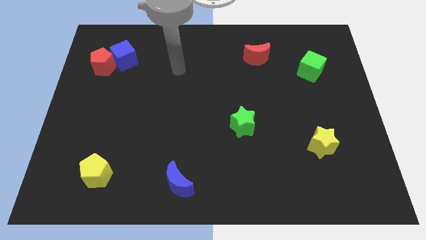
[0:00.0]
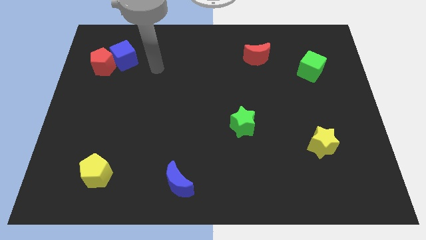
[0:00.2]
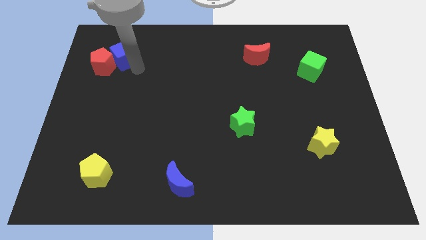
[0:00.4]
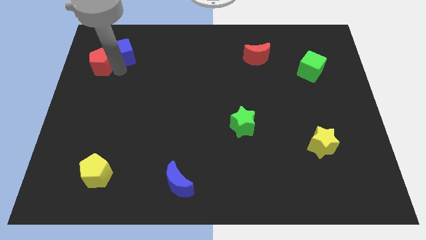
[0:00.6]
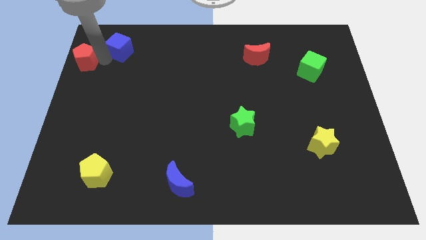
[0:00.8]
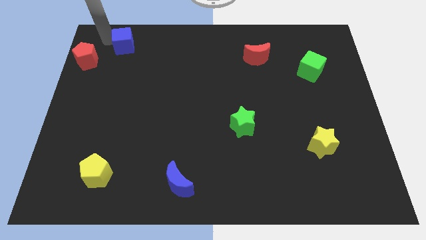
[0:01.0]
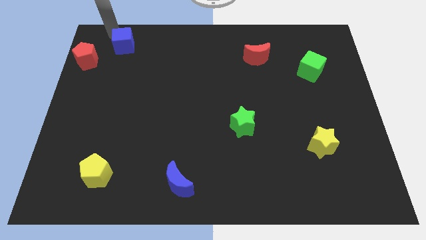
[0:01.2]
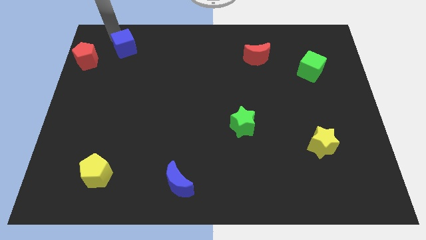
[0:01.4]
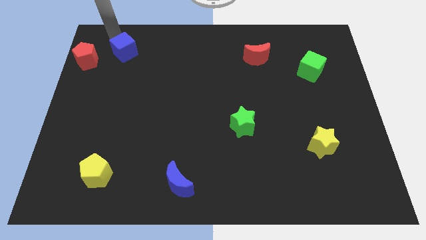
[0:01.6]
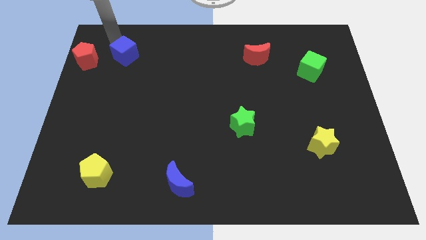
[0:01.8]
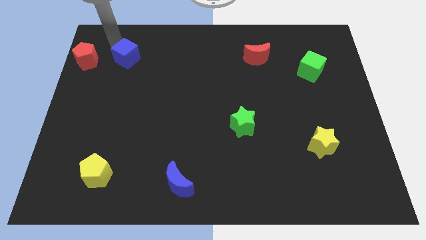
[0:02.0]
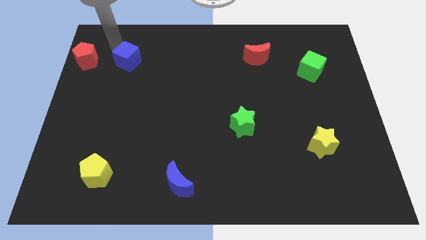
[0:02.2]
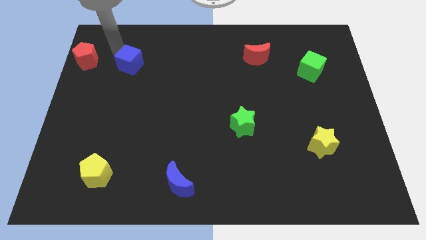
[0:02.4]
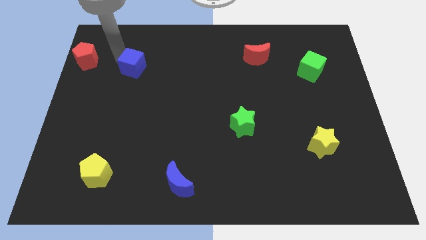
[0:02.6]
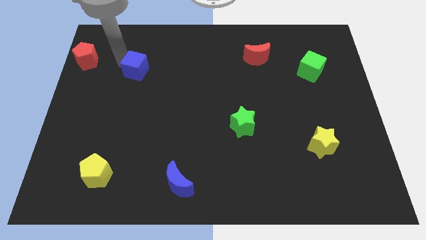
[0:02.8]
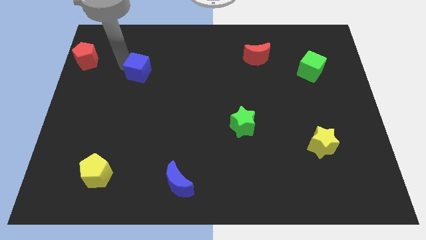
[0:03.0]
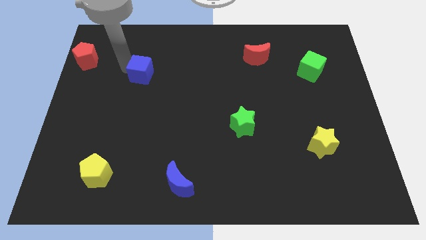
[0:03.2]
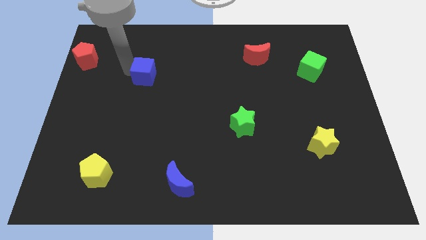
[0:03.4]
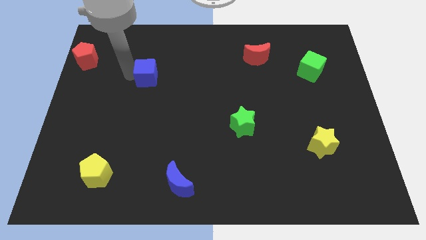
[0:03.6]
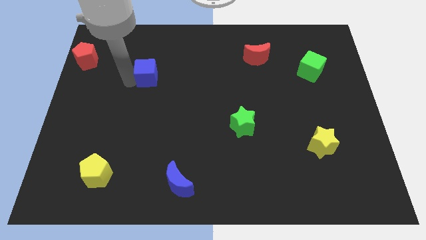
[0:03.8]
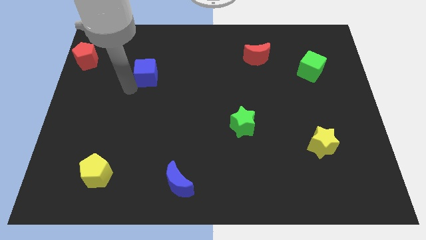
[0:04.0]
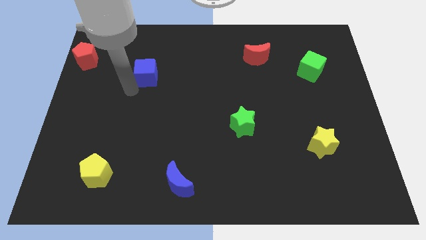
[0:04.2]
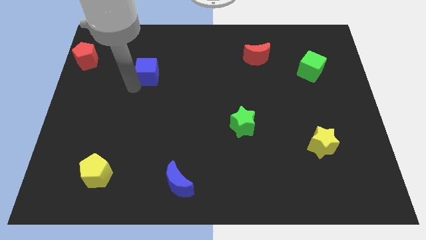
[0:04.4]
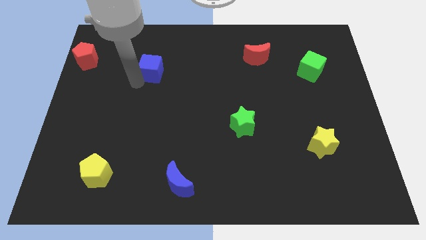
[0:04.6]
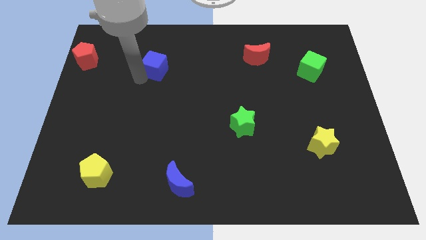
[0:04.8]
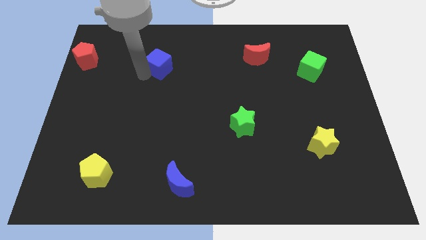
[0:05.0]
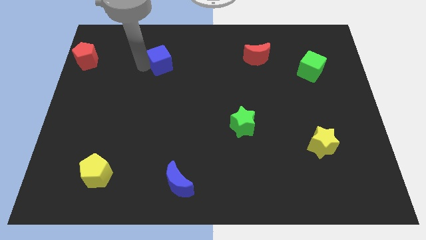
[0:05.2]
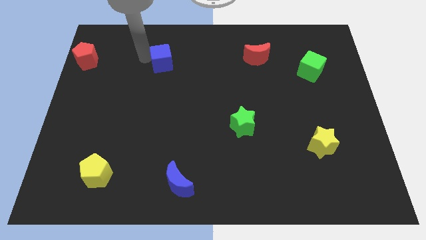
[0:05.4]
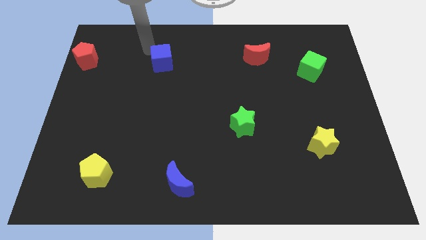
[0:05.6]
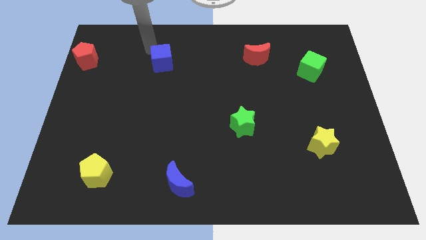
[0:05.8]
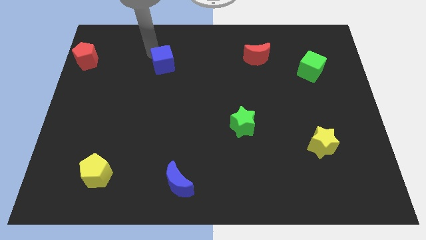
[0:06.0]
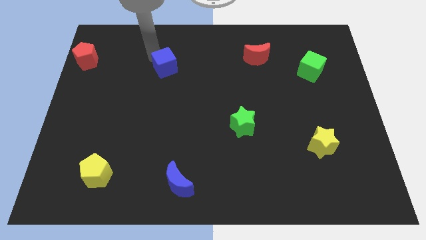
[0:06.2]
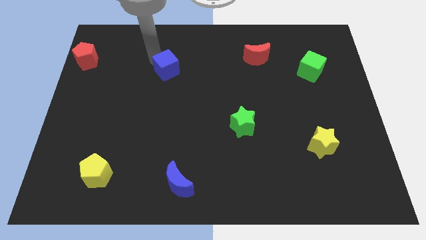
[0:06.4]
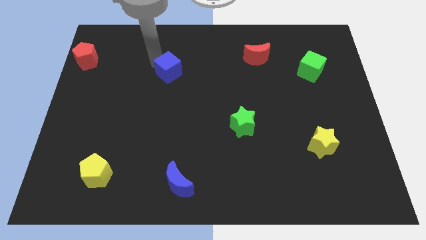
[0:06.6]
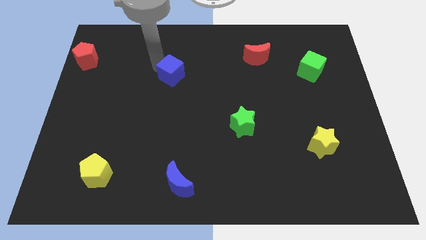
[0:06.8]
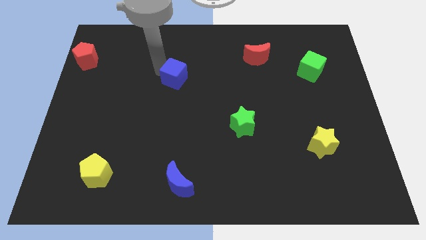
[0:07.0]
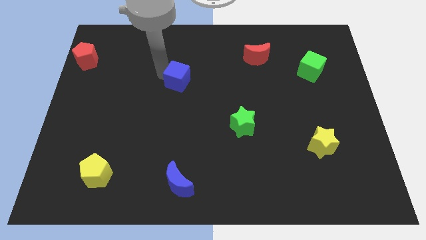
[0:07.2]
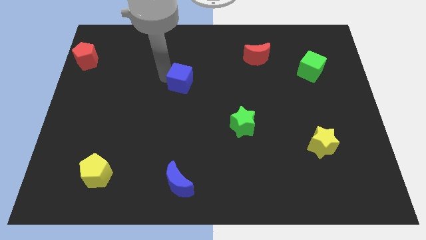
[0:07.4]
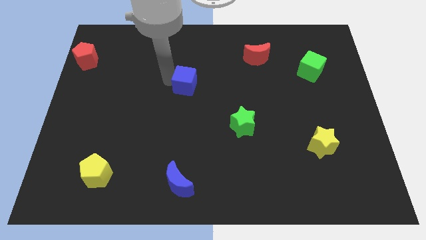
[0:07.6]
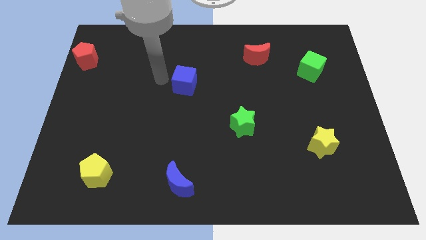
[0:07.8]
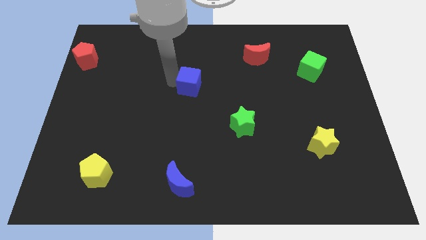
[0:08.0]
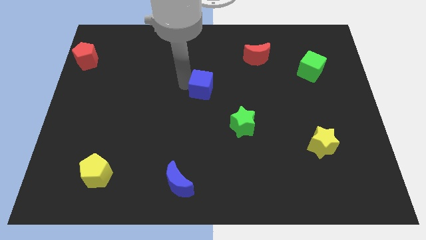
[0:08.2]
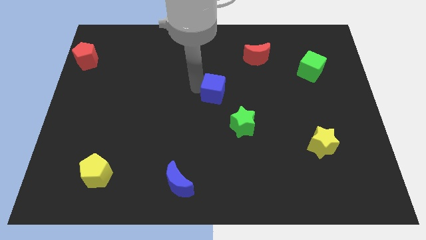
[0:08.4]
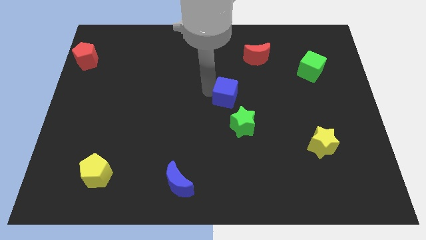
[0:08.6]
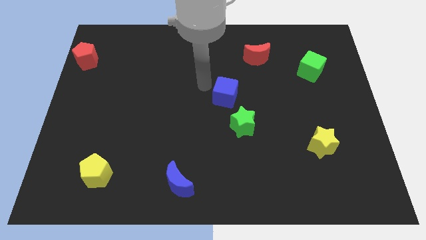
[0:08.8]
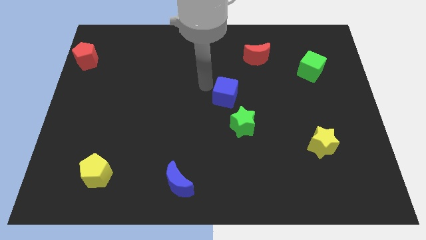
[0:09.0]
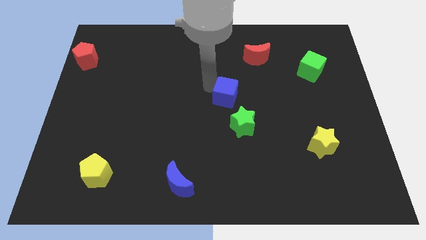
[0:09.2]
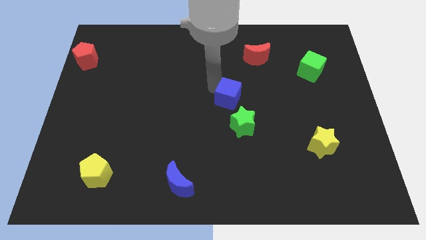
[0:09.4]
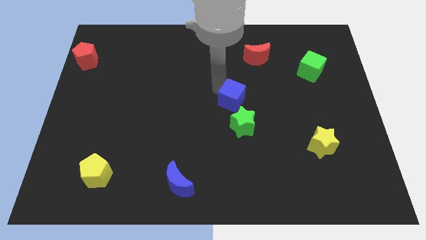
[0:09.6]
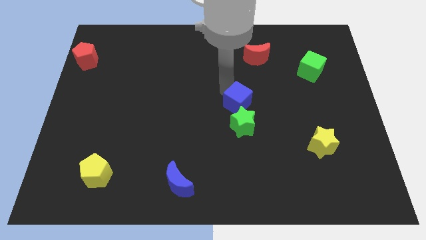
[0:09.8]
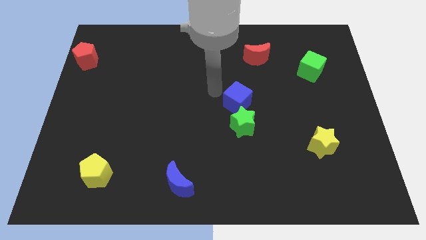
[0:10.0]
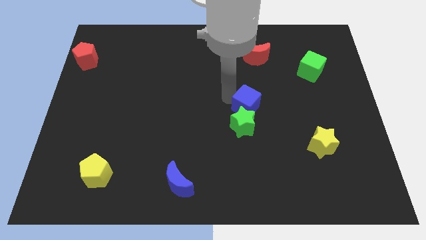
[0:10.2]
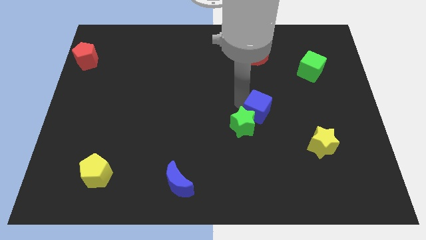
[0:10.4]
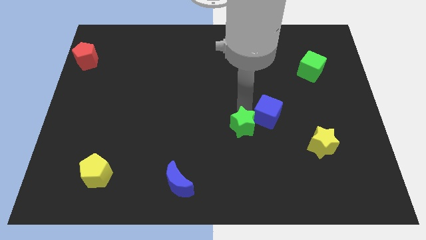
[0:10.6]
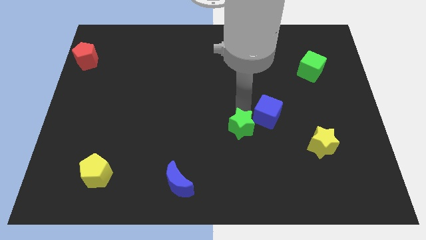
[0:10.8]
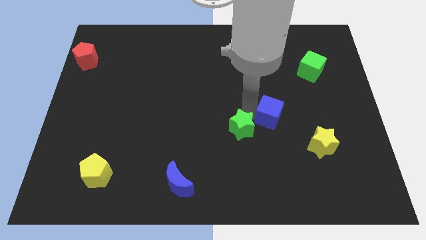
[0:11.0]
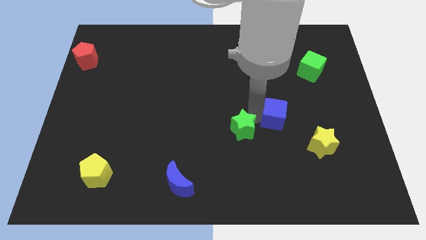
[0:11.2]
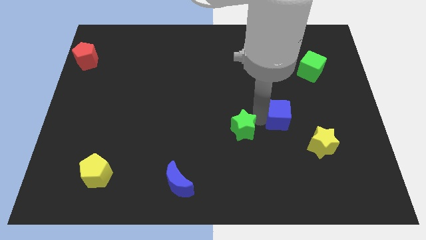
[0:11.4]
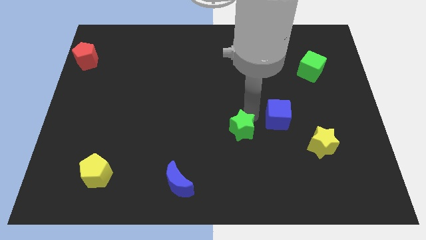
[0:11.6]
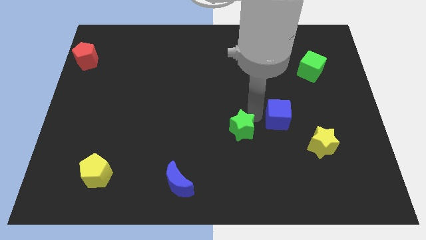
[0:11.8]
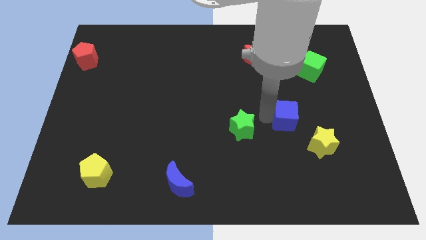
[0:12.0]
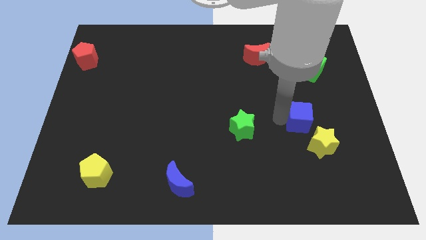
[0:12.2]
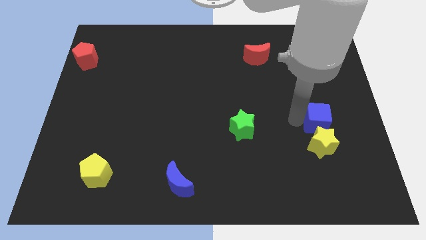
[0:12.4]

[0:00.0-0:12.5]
slide the blue cube diagonally up and to the right of the yellow star
